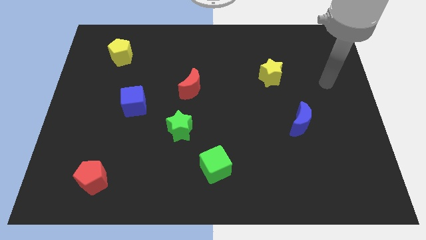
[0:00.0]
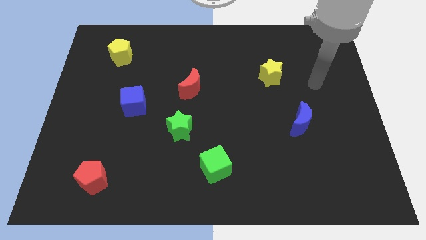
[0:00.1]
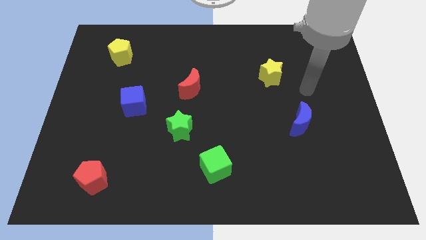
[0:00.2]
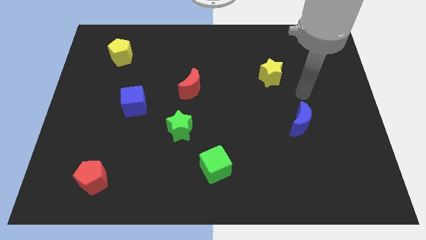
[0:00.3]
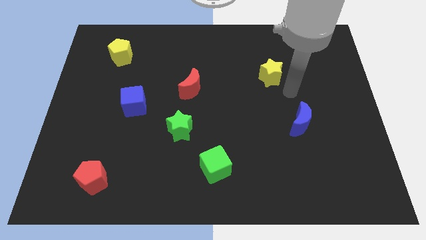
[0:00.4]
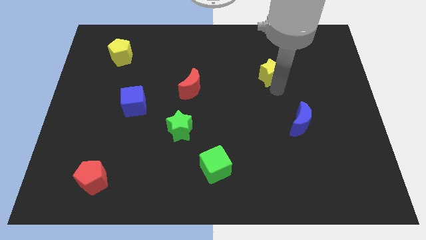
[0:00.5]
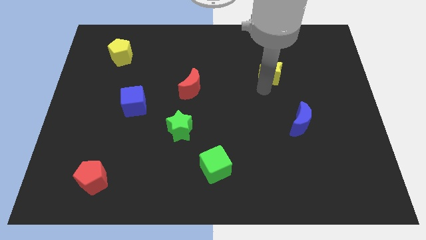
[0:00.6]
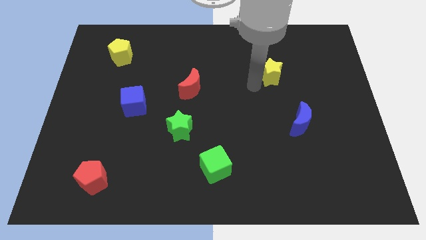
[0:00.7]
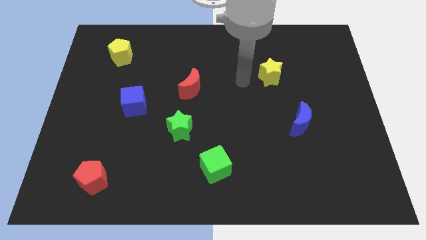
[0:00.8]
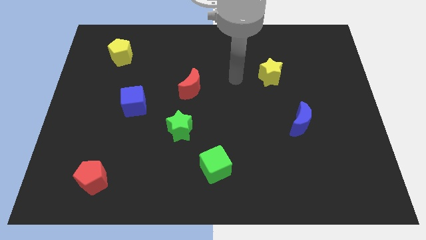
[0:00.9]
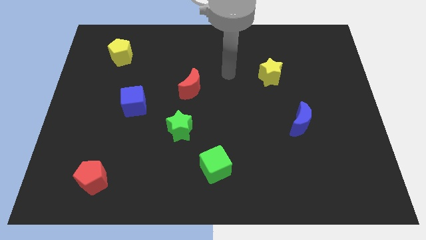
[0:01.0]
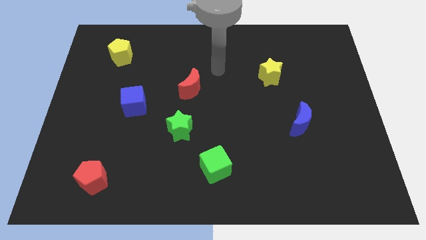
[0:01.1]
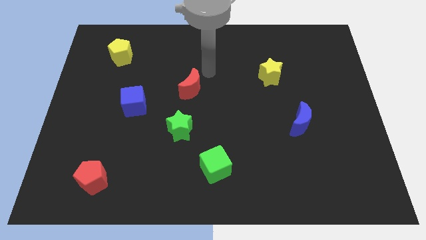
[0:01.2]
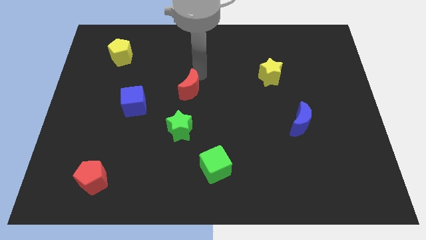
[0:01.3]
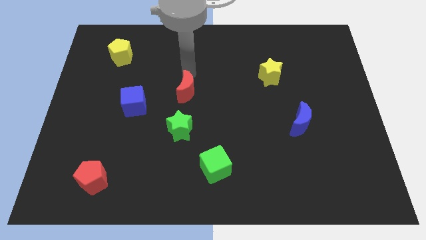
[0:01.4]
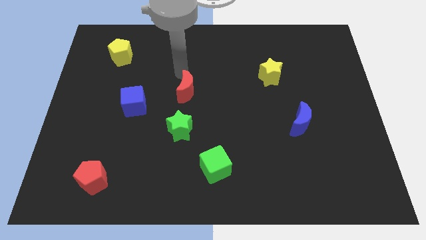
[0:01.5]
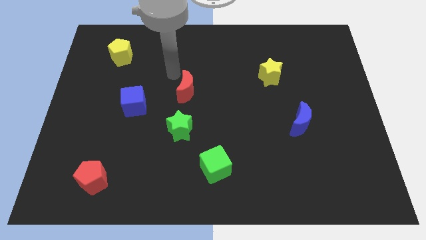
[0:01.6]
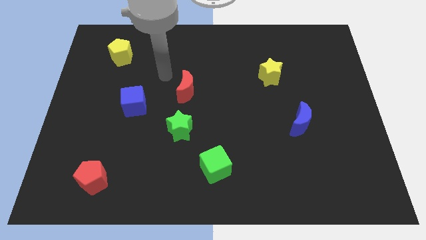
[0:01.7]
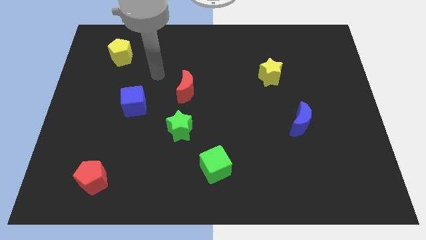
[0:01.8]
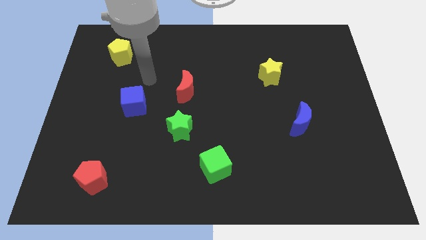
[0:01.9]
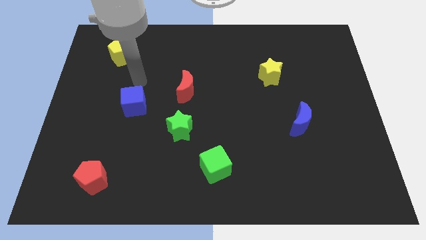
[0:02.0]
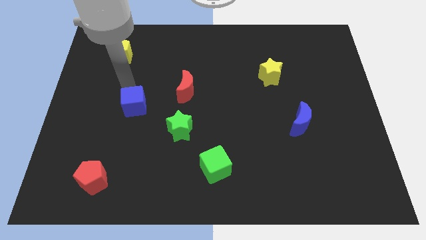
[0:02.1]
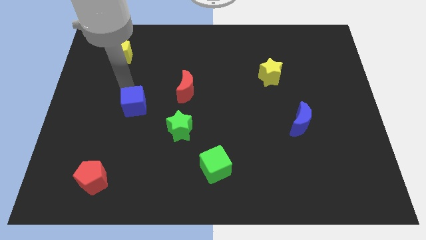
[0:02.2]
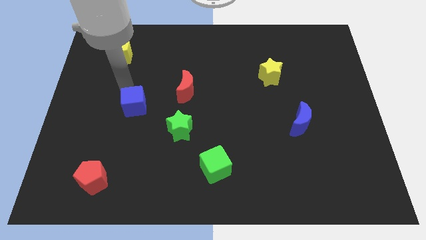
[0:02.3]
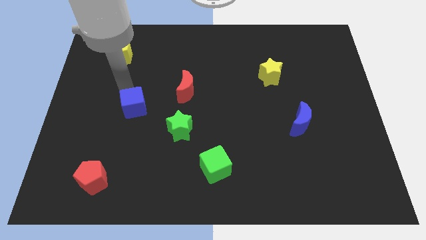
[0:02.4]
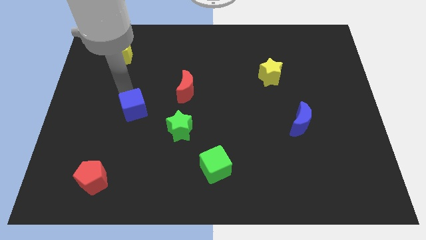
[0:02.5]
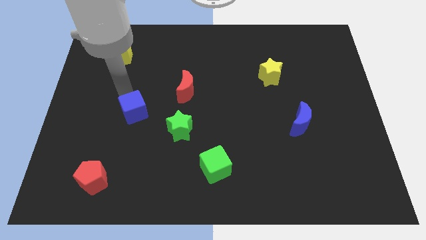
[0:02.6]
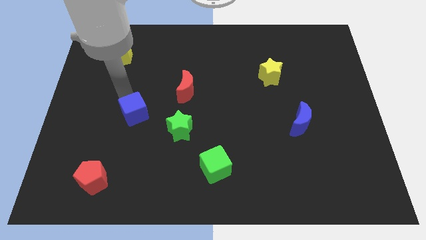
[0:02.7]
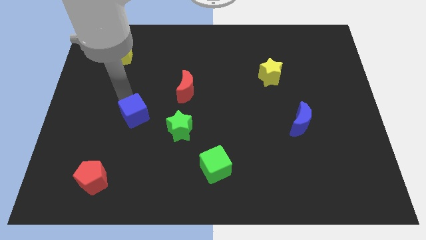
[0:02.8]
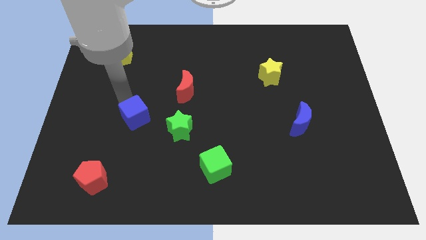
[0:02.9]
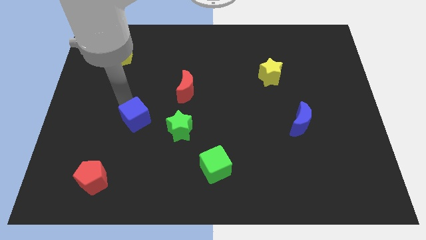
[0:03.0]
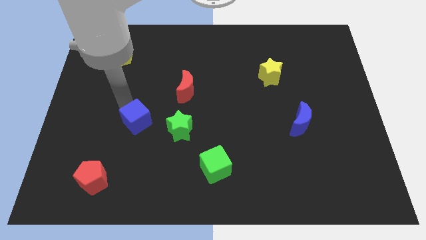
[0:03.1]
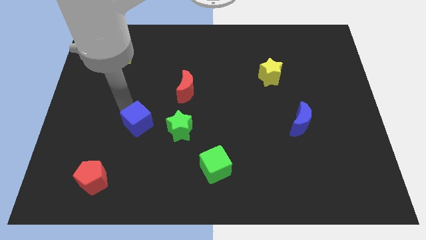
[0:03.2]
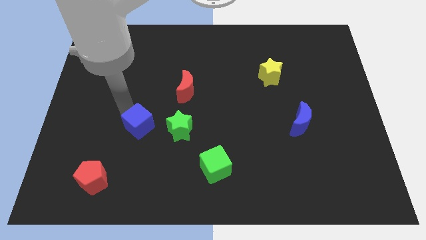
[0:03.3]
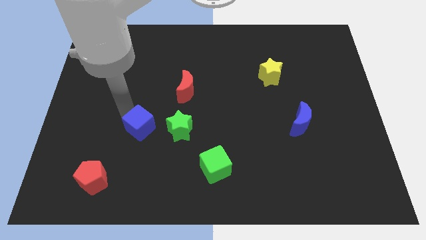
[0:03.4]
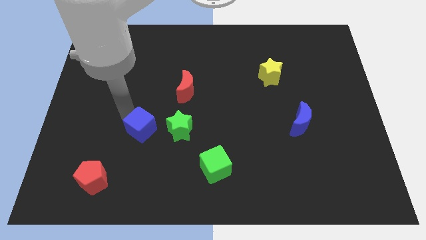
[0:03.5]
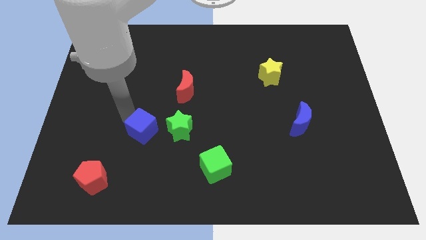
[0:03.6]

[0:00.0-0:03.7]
slightly move the blue cube downwards and then right

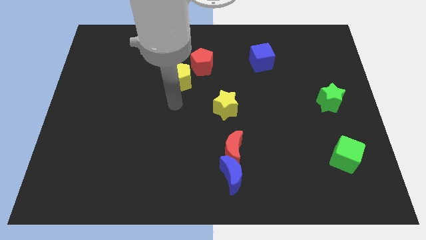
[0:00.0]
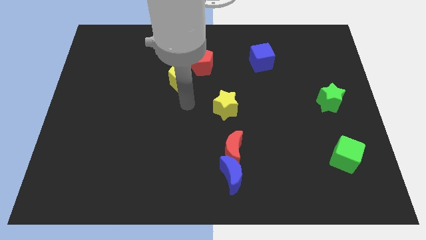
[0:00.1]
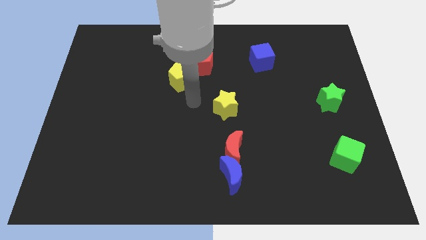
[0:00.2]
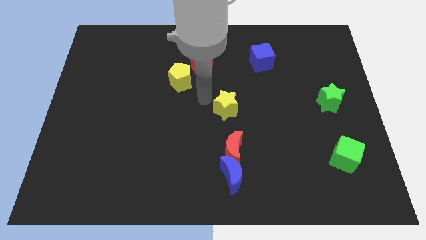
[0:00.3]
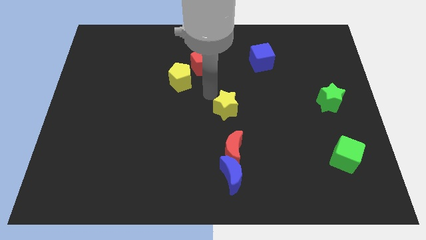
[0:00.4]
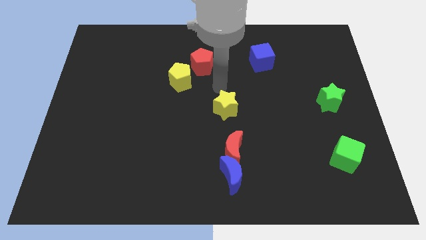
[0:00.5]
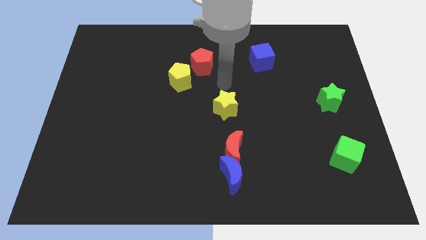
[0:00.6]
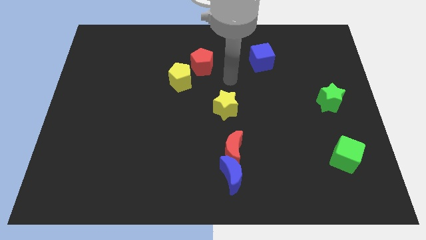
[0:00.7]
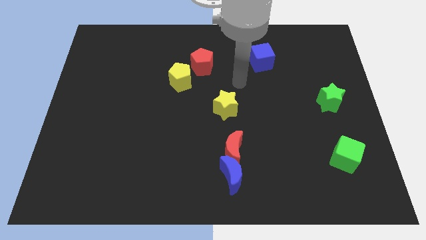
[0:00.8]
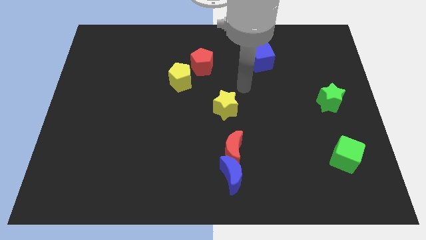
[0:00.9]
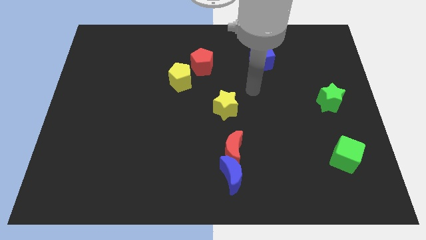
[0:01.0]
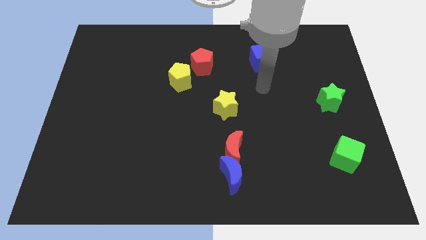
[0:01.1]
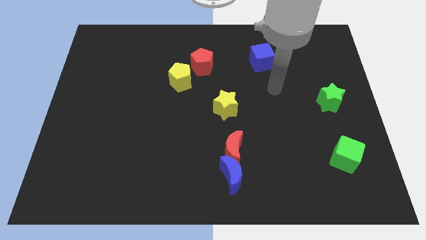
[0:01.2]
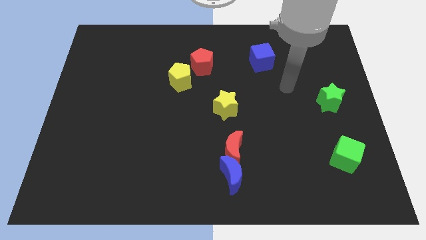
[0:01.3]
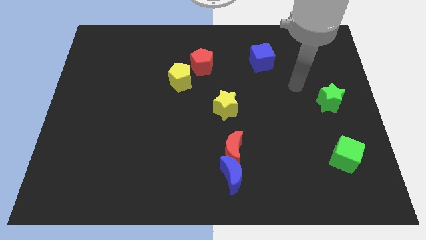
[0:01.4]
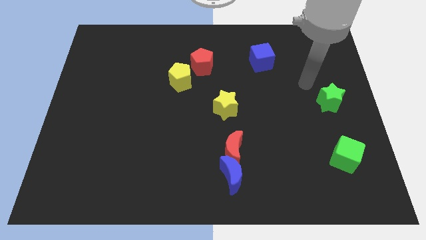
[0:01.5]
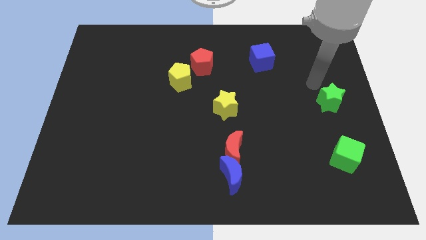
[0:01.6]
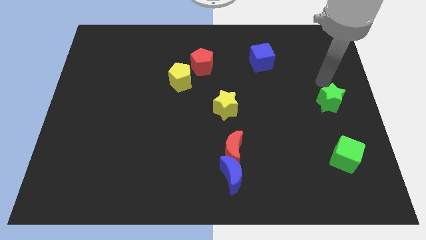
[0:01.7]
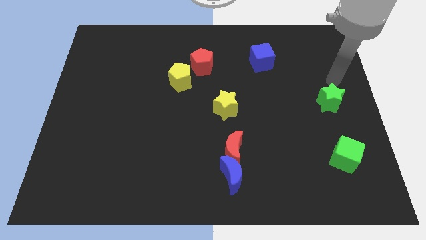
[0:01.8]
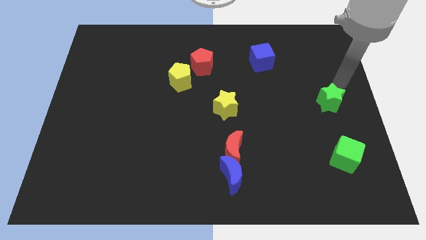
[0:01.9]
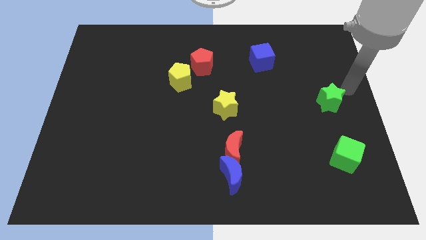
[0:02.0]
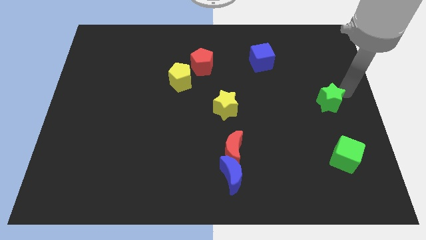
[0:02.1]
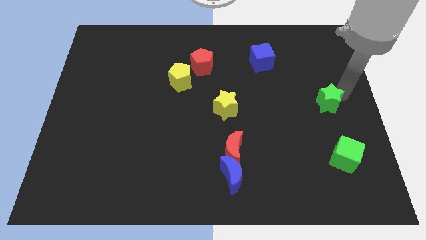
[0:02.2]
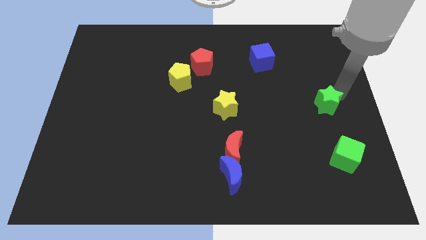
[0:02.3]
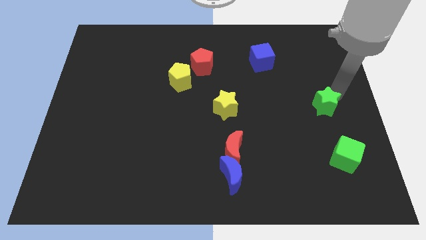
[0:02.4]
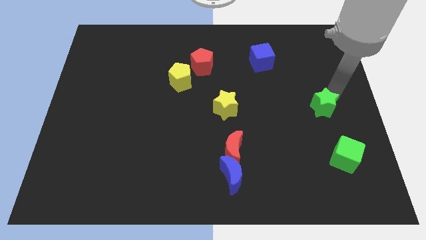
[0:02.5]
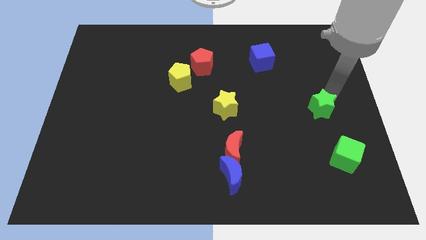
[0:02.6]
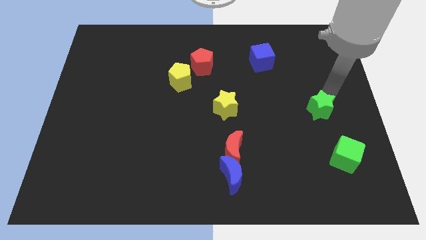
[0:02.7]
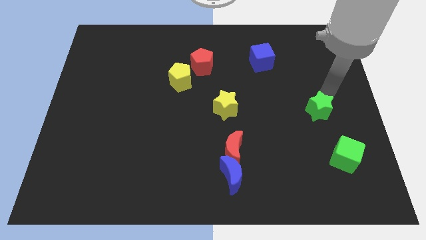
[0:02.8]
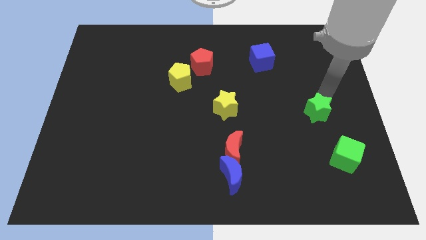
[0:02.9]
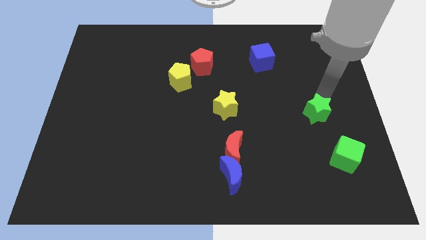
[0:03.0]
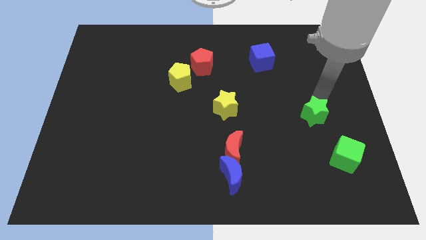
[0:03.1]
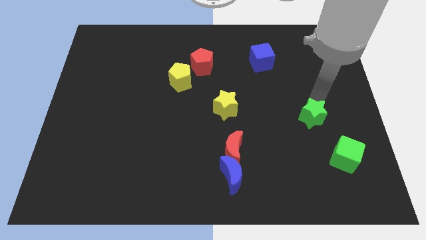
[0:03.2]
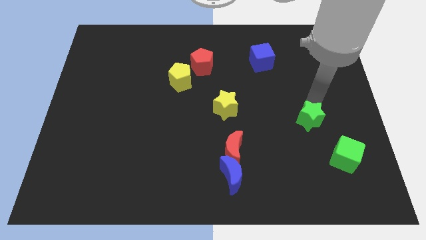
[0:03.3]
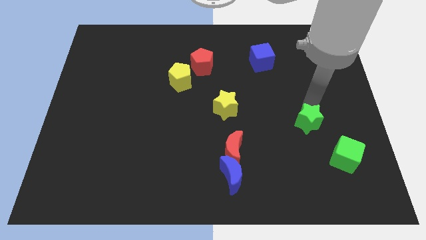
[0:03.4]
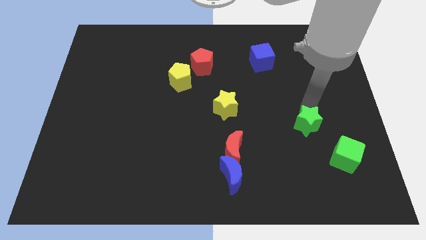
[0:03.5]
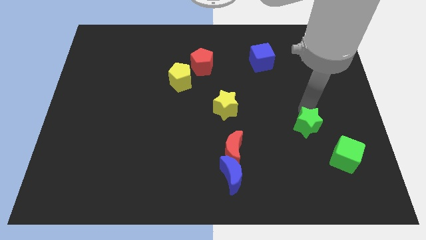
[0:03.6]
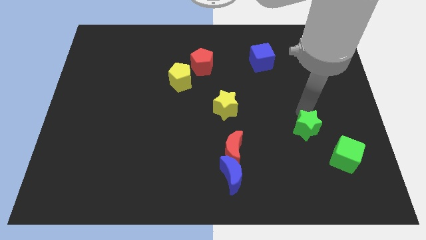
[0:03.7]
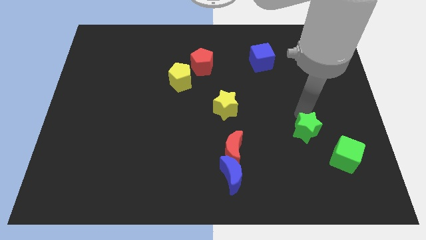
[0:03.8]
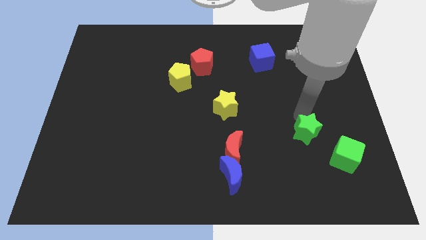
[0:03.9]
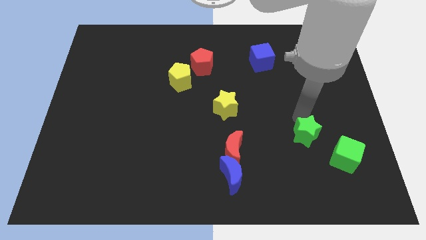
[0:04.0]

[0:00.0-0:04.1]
push the green star down somewhat
